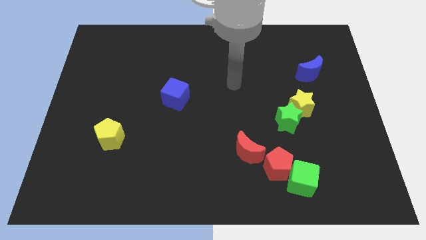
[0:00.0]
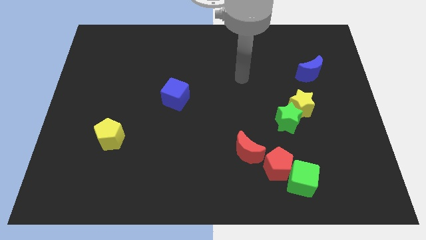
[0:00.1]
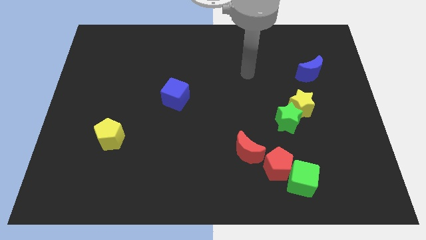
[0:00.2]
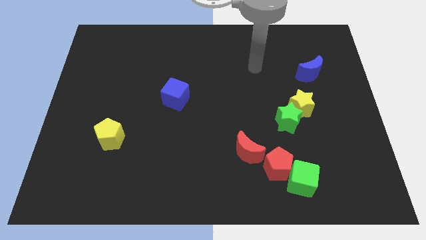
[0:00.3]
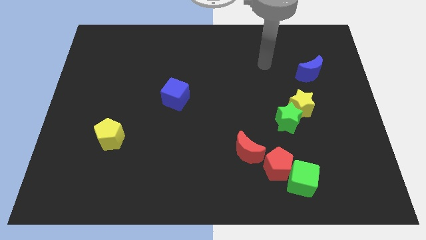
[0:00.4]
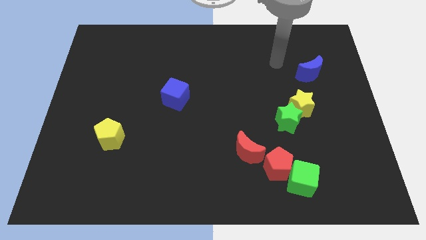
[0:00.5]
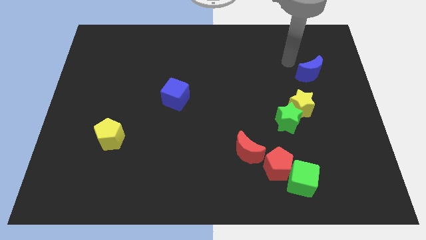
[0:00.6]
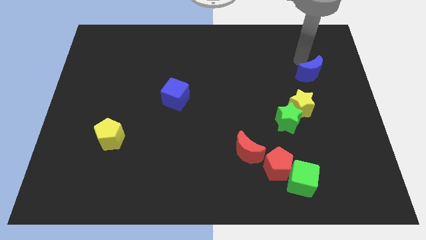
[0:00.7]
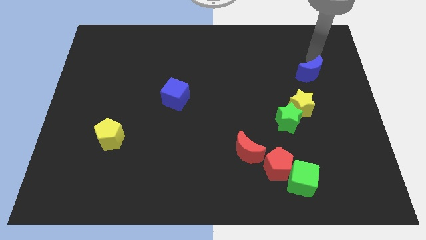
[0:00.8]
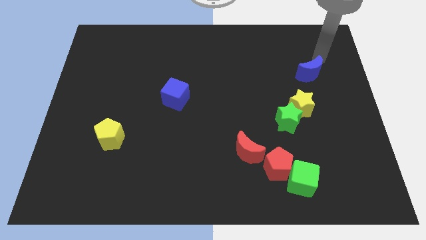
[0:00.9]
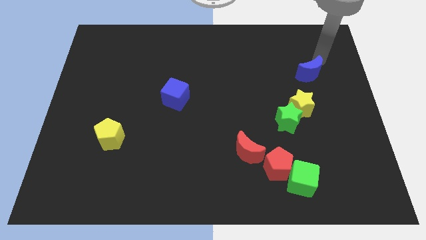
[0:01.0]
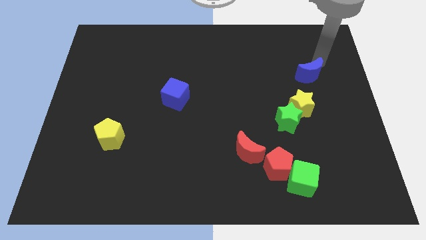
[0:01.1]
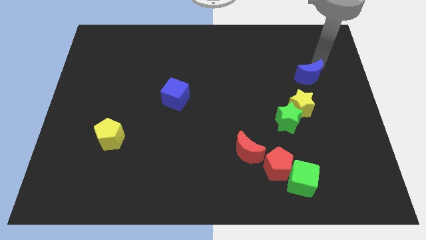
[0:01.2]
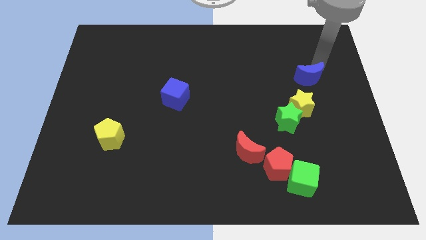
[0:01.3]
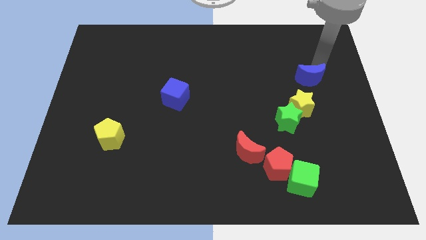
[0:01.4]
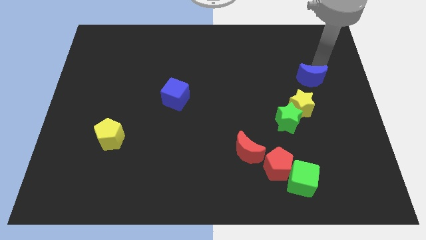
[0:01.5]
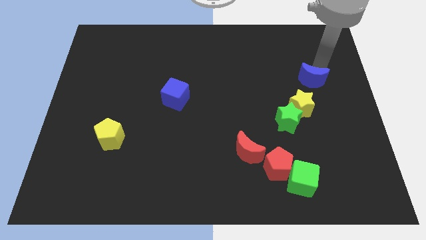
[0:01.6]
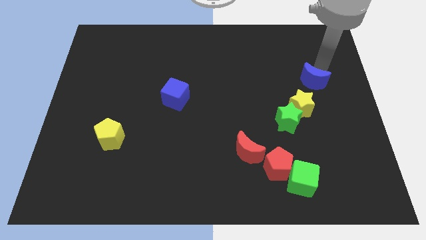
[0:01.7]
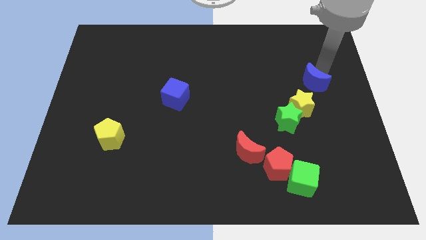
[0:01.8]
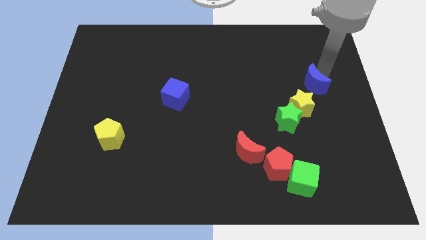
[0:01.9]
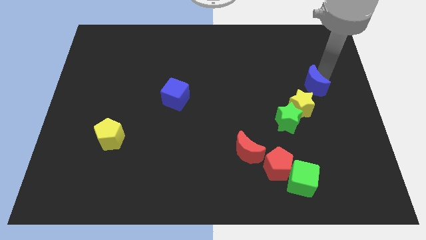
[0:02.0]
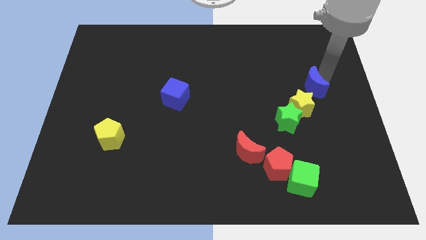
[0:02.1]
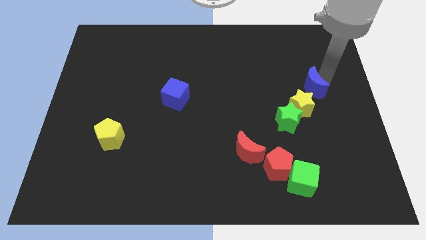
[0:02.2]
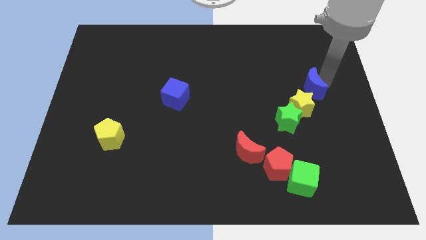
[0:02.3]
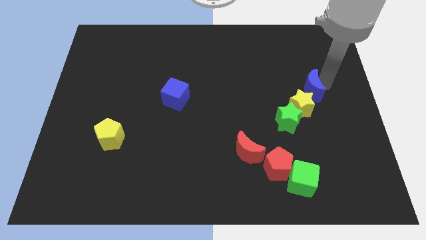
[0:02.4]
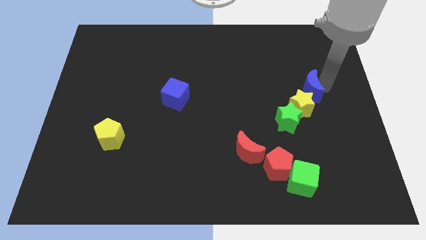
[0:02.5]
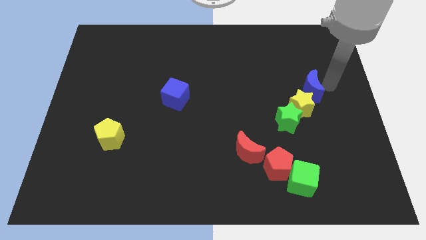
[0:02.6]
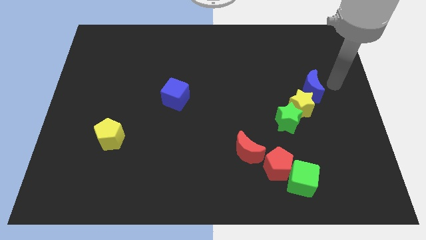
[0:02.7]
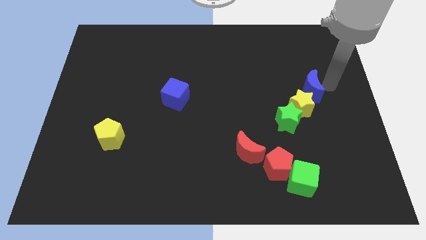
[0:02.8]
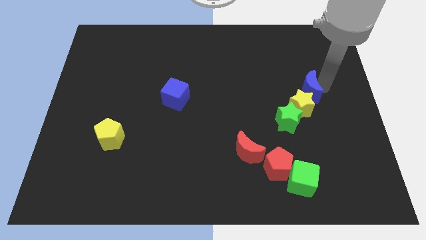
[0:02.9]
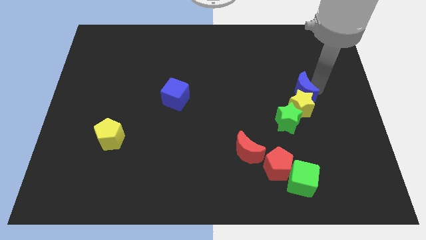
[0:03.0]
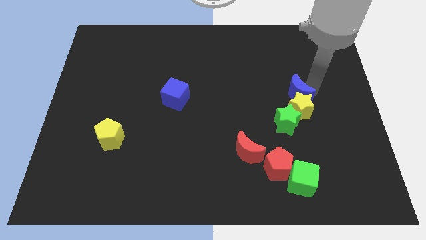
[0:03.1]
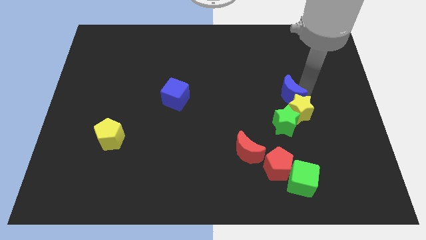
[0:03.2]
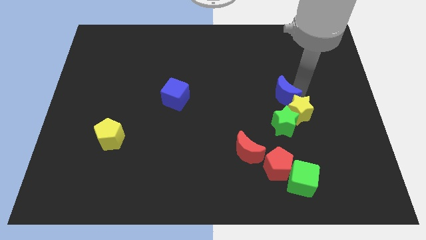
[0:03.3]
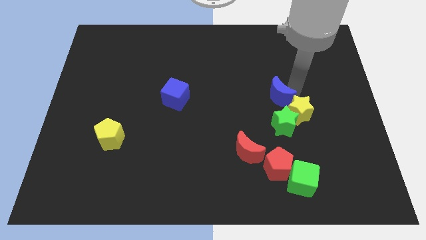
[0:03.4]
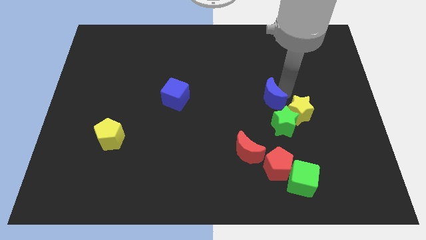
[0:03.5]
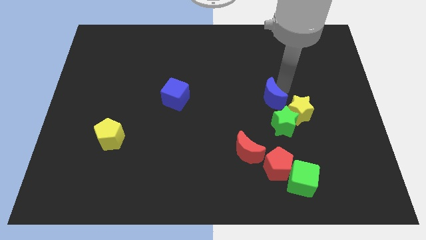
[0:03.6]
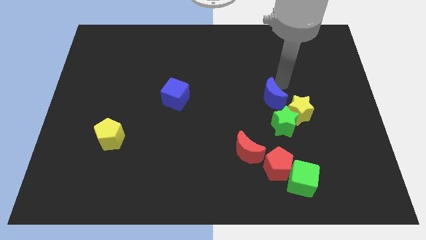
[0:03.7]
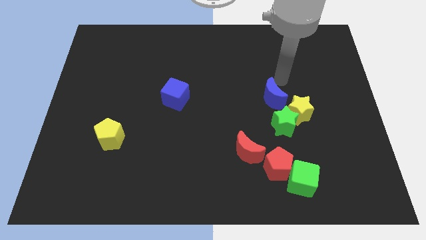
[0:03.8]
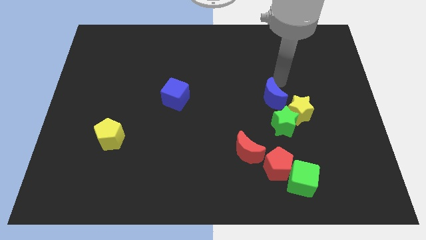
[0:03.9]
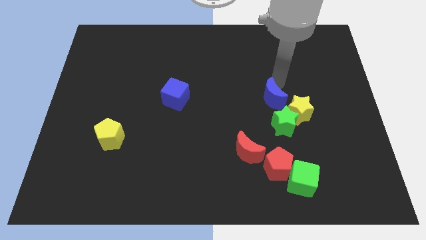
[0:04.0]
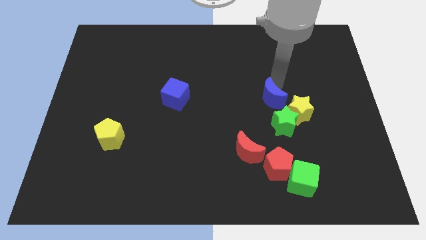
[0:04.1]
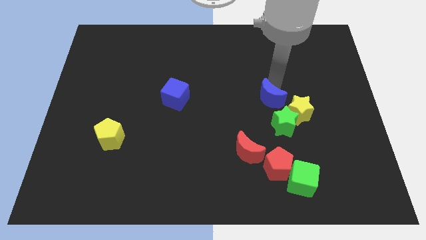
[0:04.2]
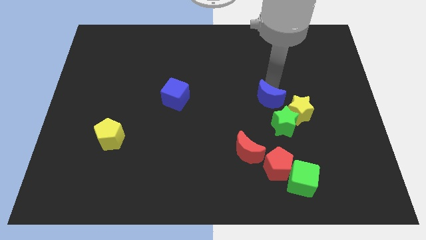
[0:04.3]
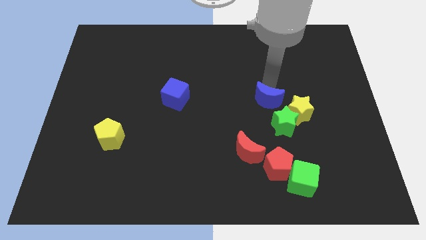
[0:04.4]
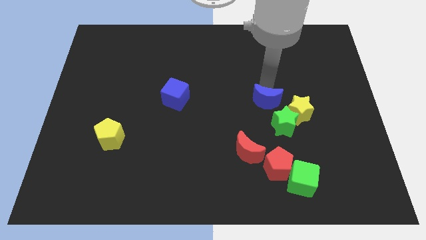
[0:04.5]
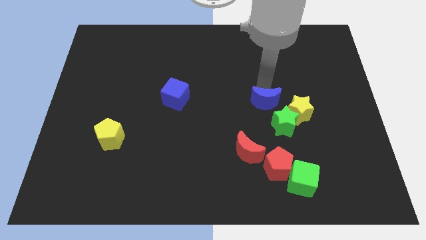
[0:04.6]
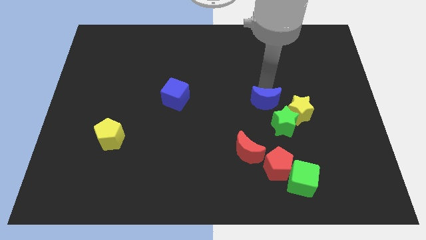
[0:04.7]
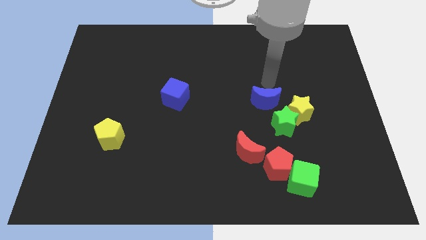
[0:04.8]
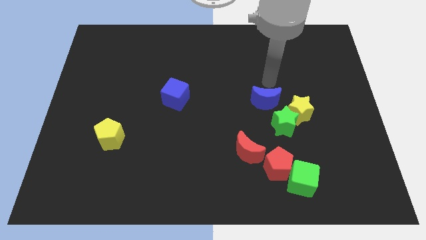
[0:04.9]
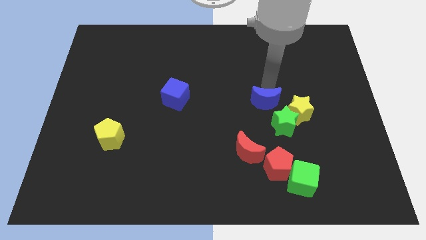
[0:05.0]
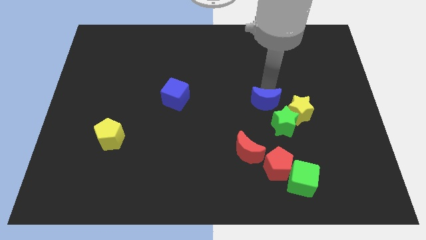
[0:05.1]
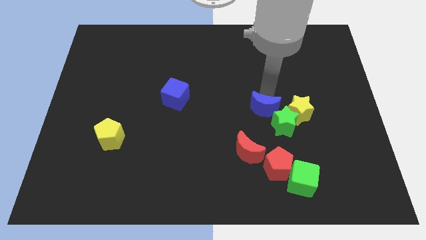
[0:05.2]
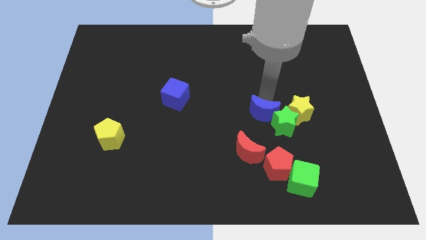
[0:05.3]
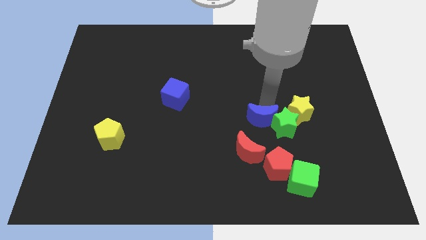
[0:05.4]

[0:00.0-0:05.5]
push the blue moon down and then to the left

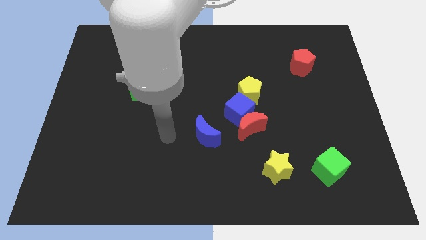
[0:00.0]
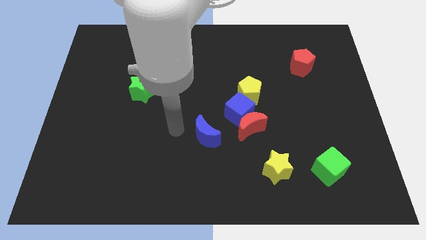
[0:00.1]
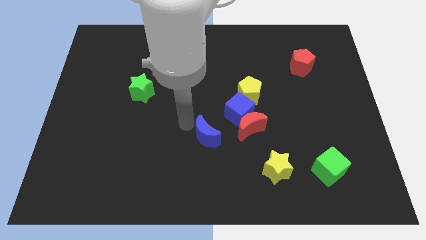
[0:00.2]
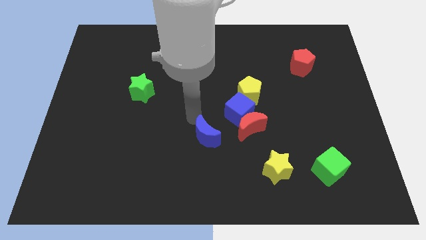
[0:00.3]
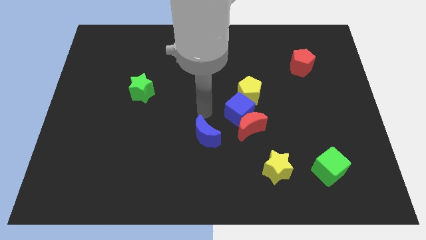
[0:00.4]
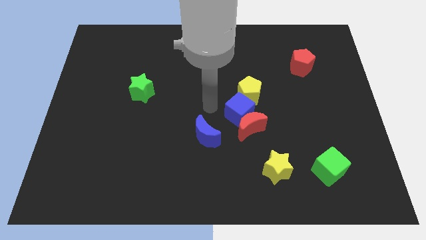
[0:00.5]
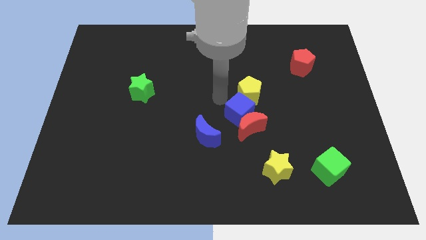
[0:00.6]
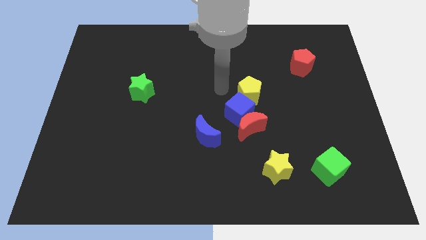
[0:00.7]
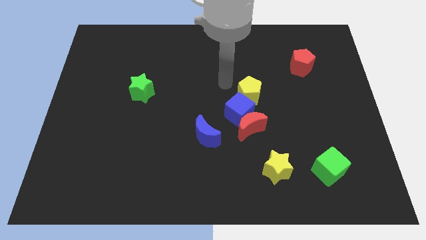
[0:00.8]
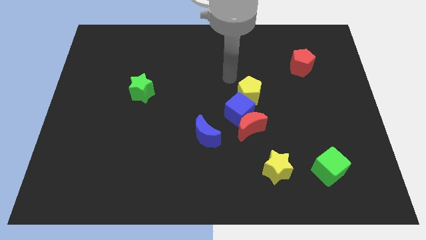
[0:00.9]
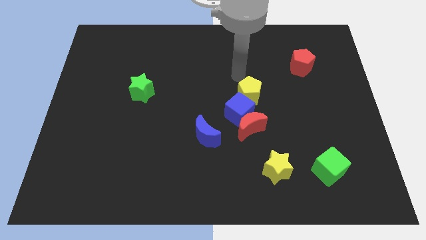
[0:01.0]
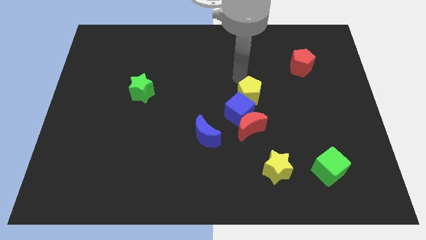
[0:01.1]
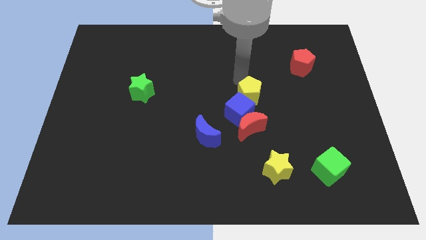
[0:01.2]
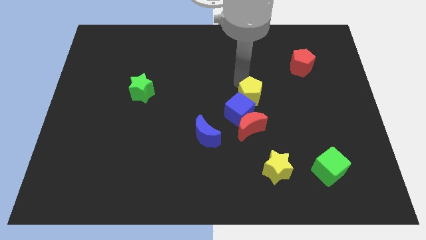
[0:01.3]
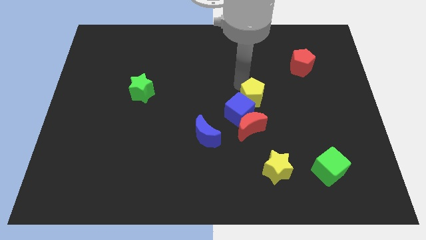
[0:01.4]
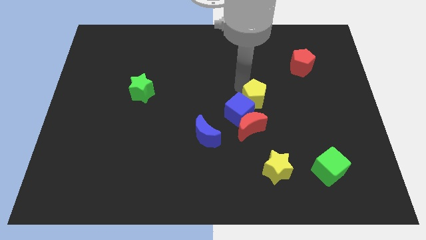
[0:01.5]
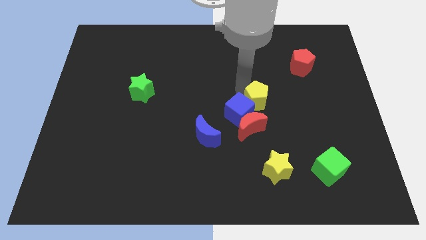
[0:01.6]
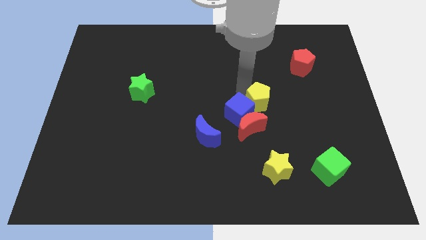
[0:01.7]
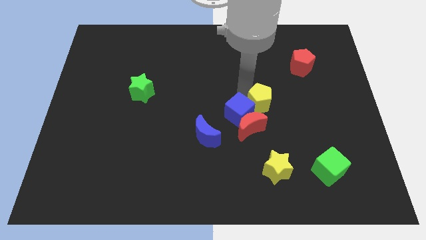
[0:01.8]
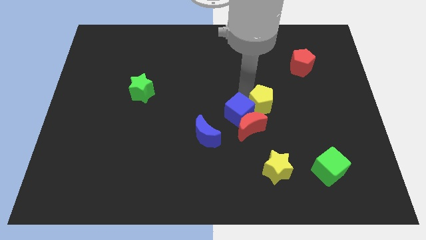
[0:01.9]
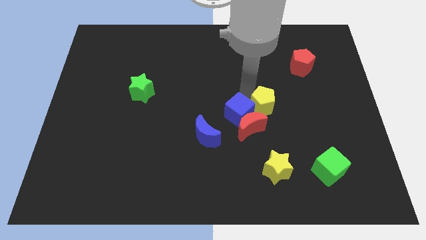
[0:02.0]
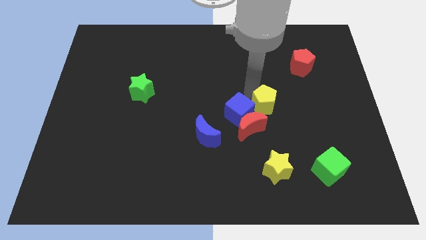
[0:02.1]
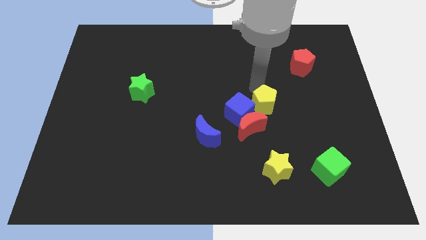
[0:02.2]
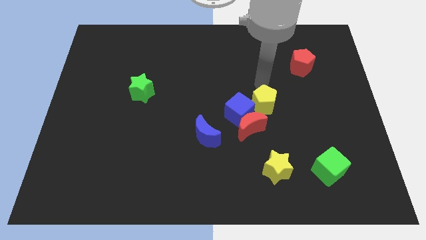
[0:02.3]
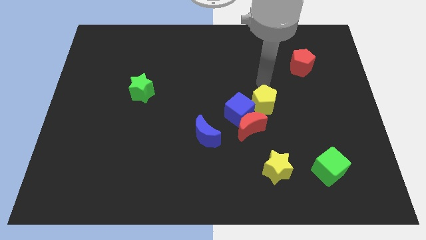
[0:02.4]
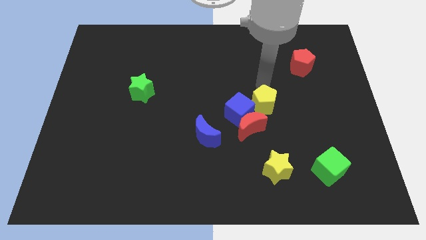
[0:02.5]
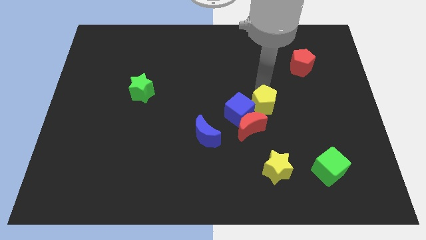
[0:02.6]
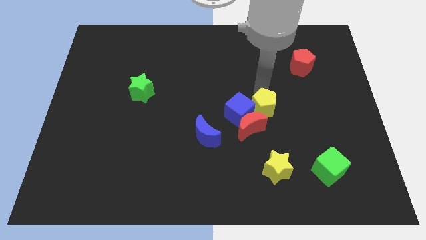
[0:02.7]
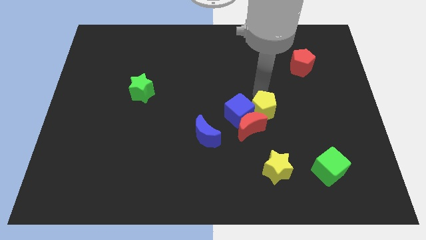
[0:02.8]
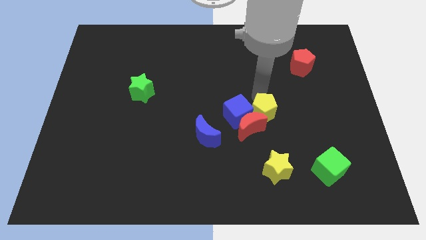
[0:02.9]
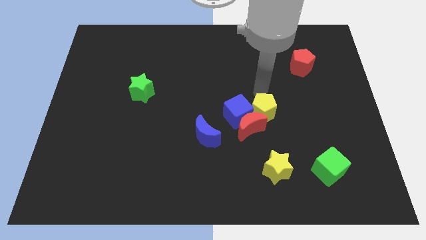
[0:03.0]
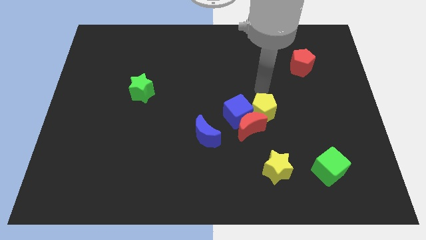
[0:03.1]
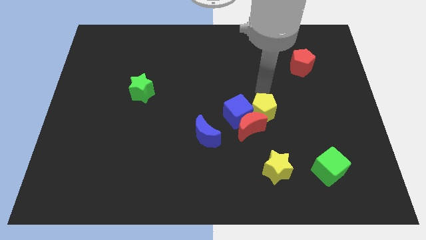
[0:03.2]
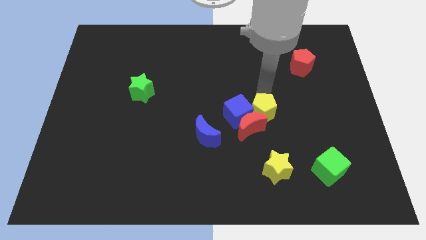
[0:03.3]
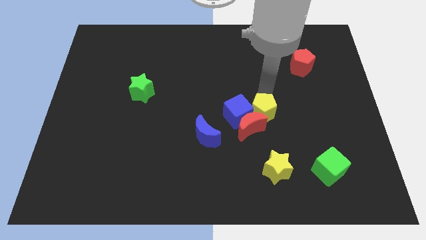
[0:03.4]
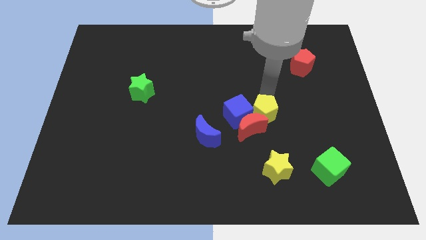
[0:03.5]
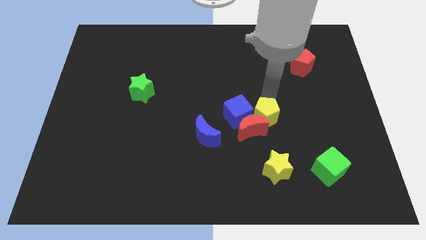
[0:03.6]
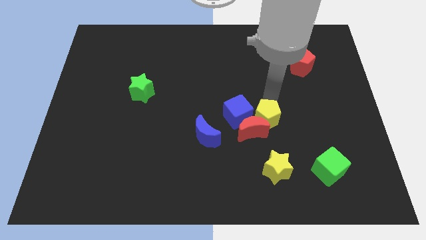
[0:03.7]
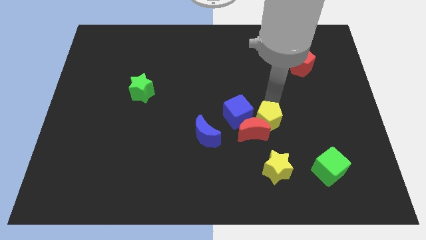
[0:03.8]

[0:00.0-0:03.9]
move the yellow pentagon downwards slightly
